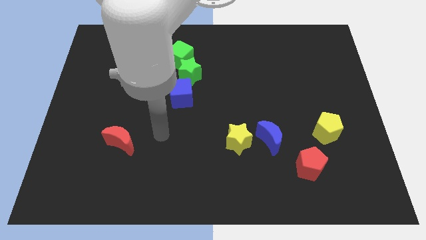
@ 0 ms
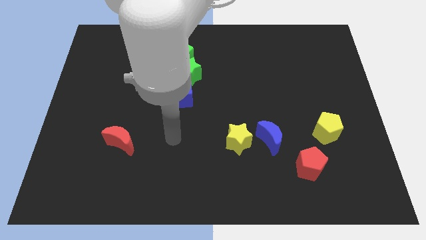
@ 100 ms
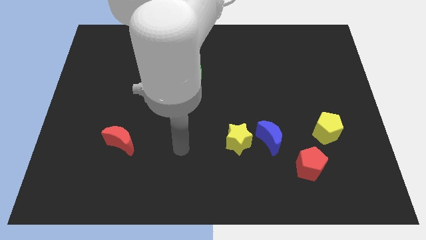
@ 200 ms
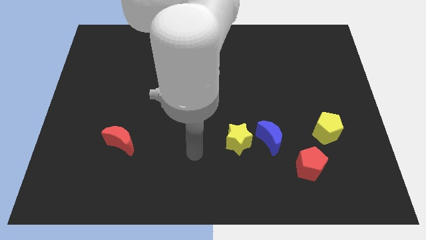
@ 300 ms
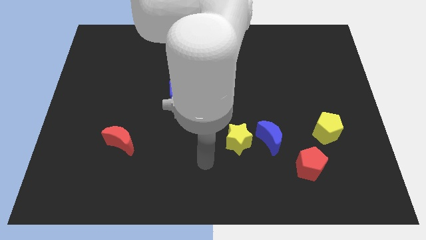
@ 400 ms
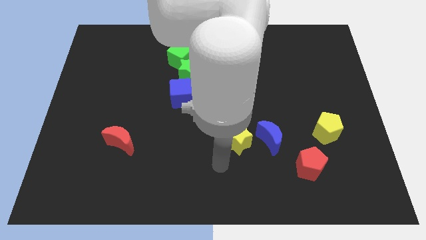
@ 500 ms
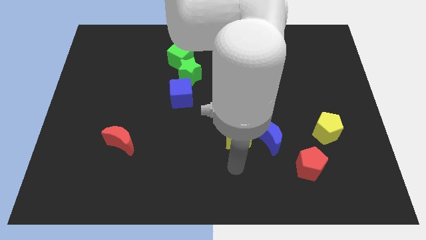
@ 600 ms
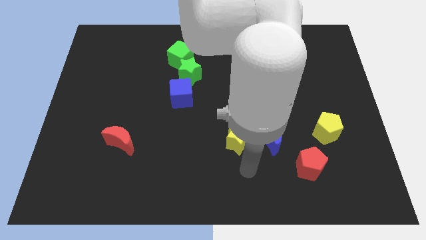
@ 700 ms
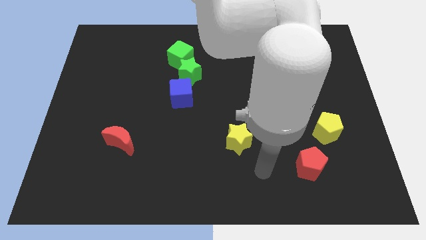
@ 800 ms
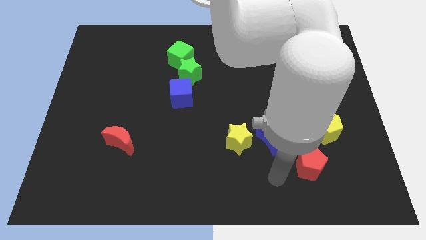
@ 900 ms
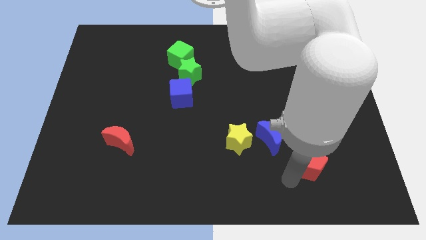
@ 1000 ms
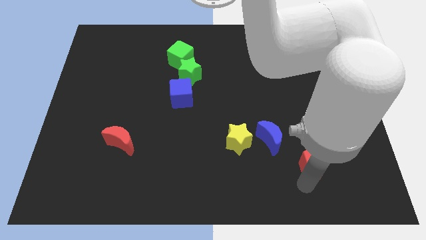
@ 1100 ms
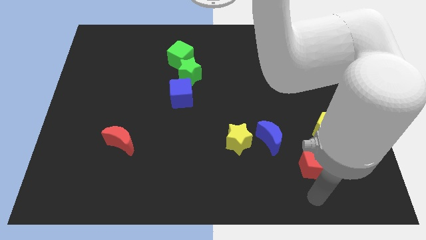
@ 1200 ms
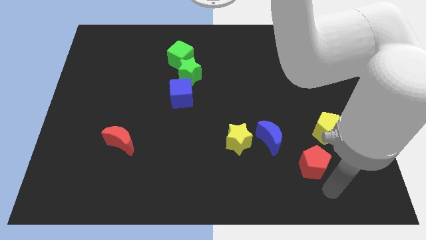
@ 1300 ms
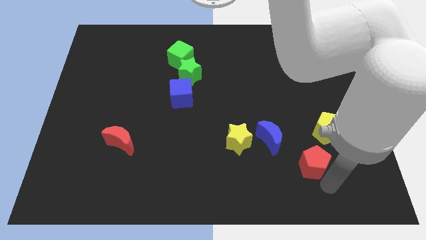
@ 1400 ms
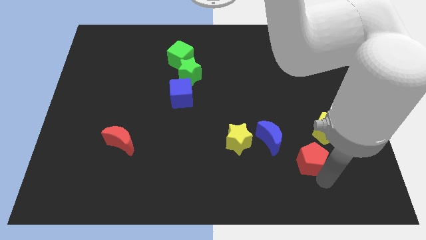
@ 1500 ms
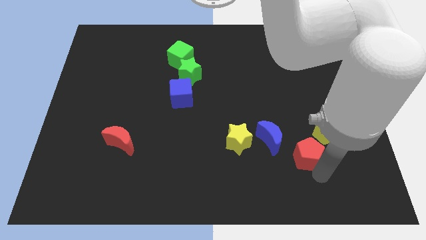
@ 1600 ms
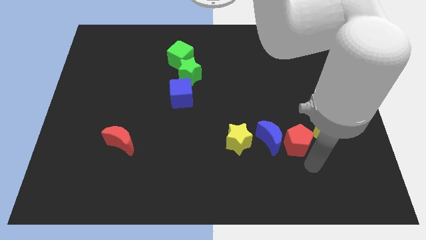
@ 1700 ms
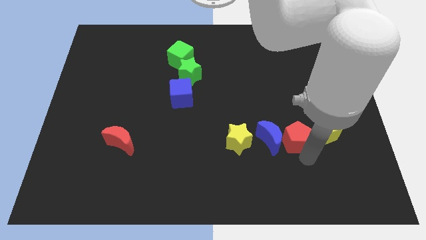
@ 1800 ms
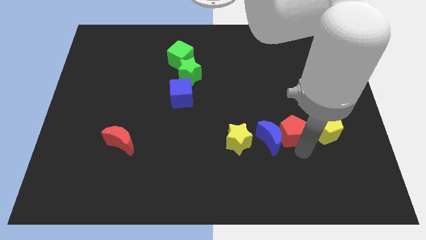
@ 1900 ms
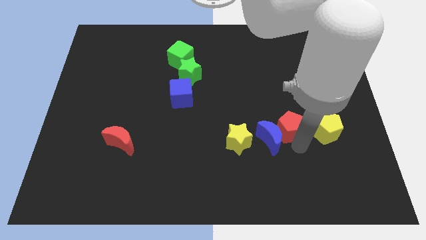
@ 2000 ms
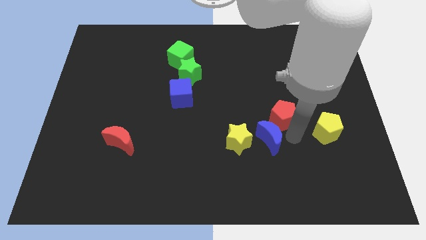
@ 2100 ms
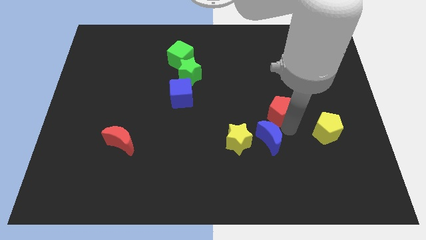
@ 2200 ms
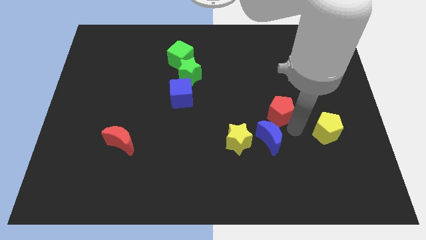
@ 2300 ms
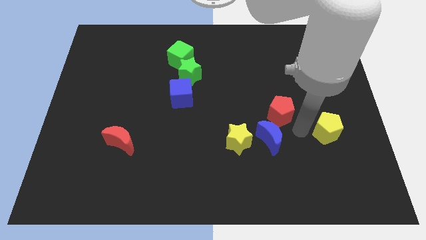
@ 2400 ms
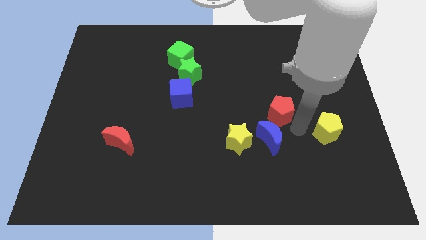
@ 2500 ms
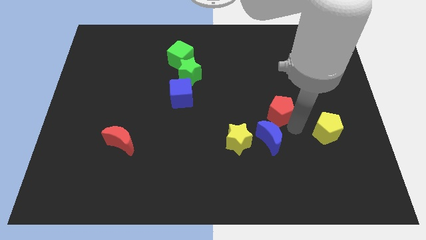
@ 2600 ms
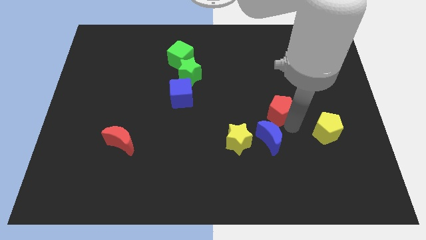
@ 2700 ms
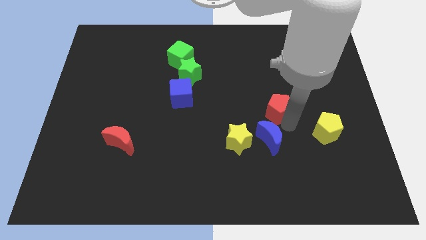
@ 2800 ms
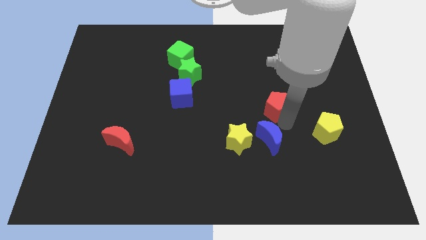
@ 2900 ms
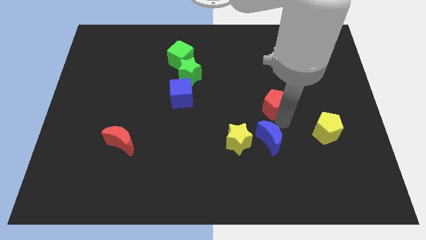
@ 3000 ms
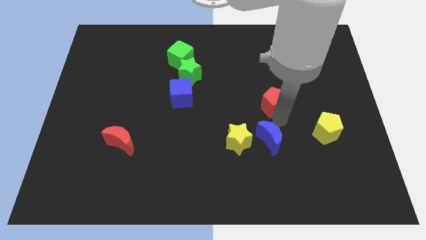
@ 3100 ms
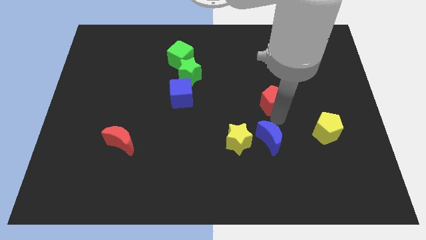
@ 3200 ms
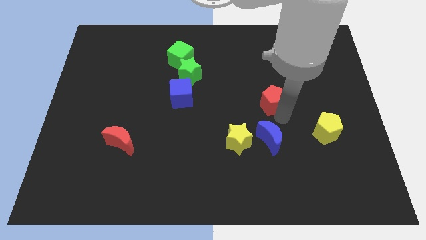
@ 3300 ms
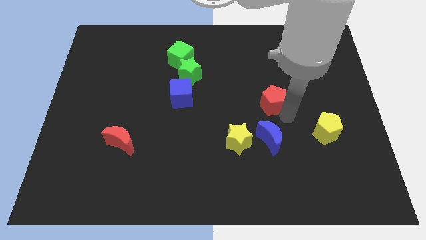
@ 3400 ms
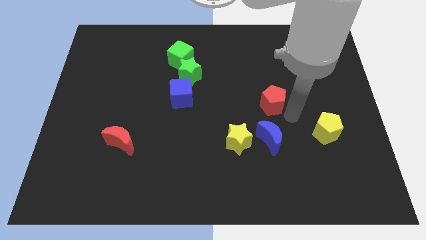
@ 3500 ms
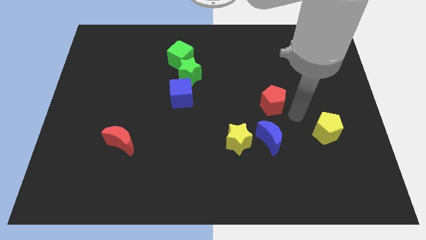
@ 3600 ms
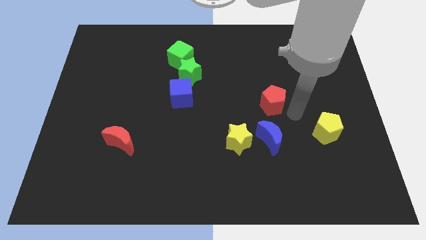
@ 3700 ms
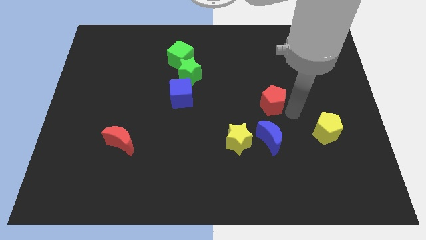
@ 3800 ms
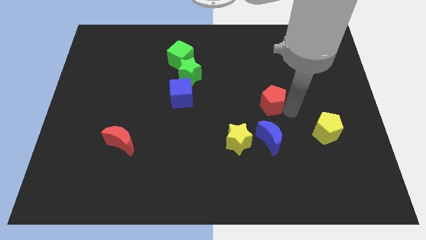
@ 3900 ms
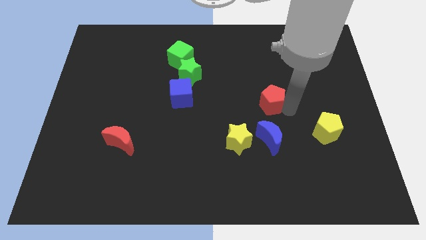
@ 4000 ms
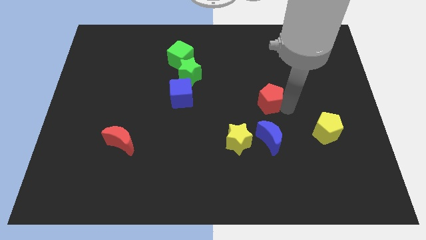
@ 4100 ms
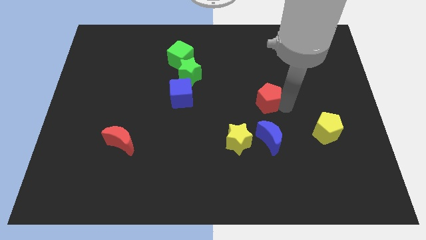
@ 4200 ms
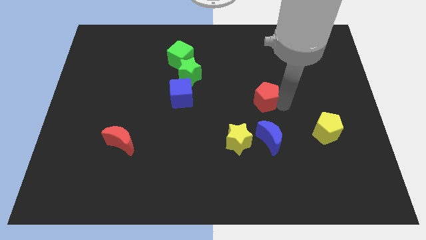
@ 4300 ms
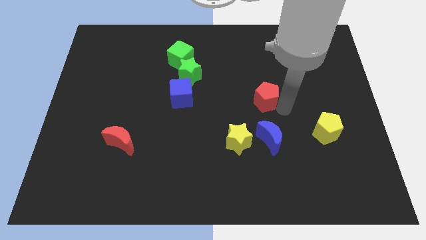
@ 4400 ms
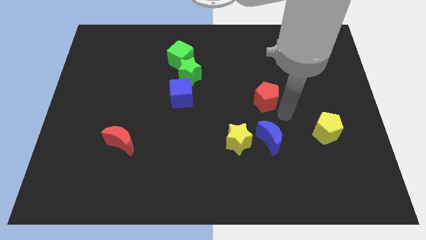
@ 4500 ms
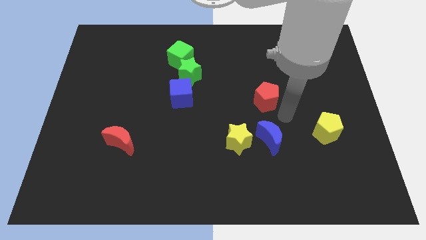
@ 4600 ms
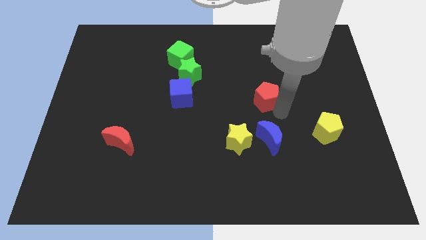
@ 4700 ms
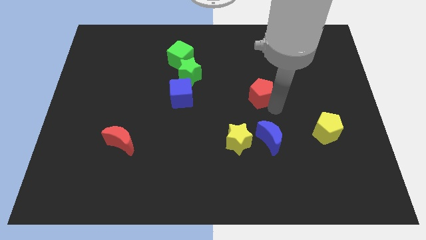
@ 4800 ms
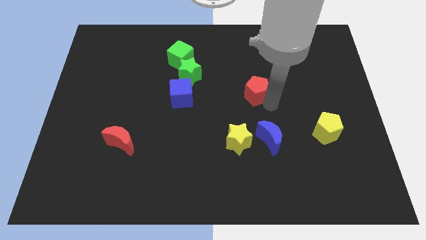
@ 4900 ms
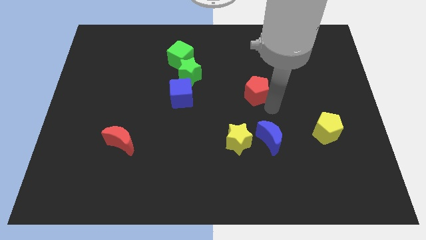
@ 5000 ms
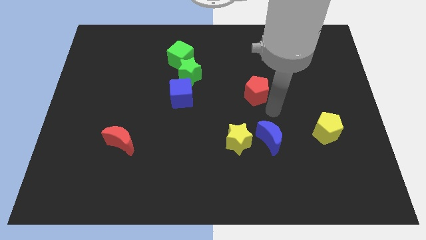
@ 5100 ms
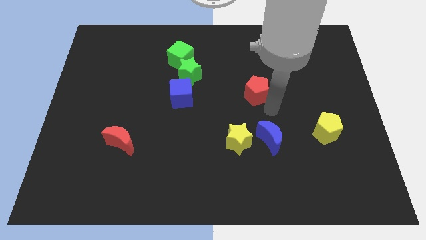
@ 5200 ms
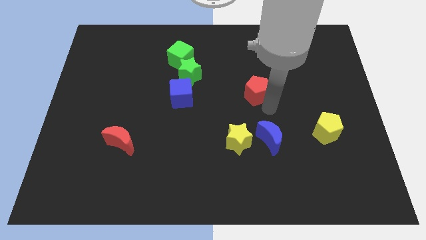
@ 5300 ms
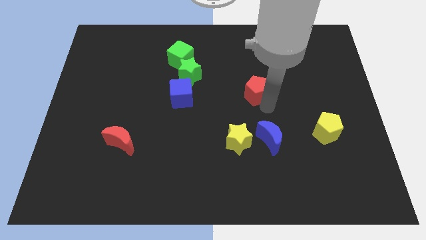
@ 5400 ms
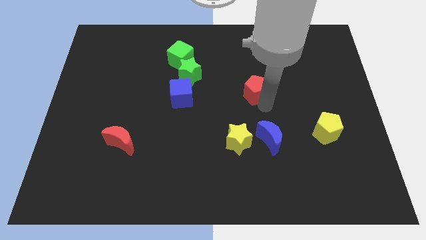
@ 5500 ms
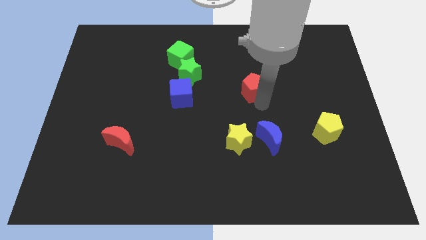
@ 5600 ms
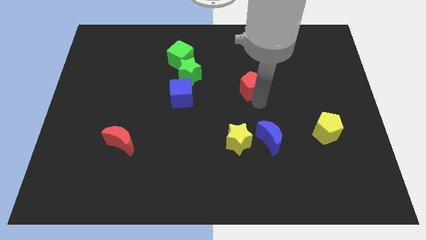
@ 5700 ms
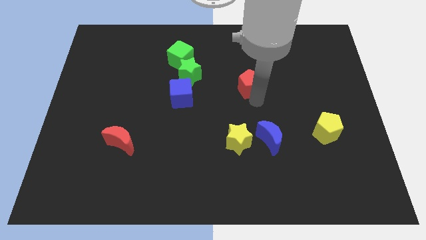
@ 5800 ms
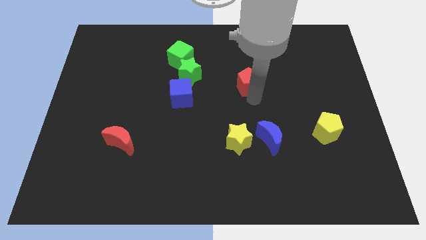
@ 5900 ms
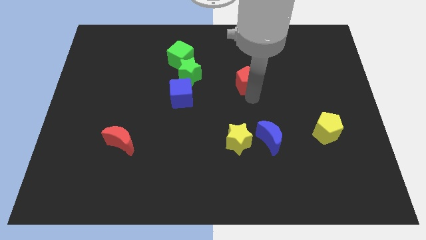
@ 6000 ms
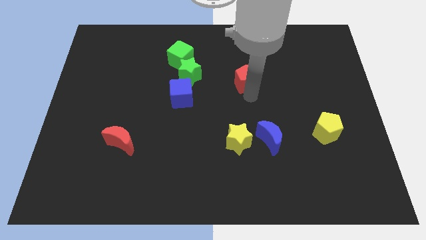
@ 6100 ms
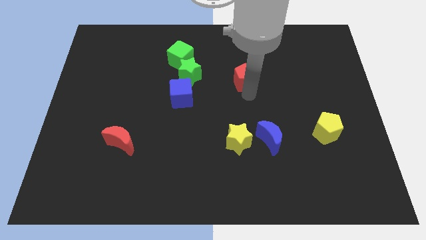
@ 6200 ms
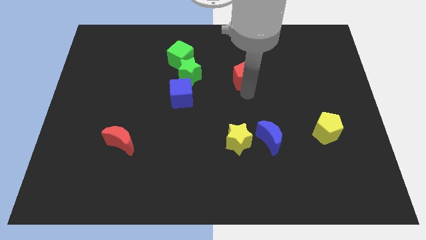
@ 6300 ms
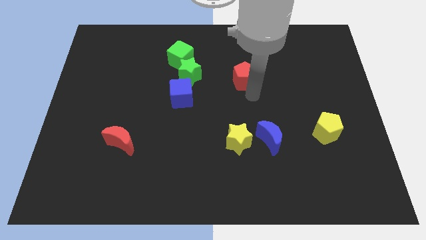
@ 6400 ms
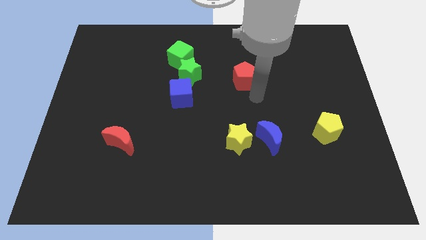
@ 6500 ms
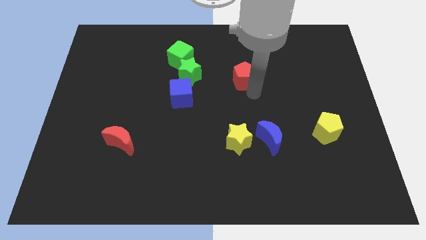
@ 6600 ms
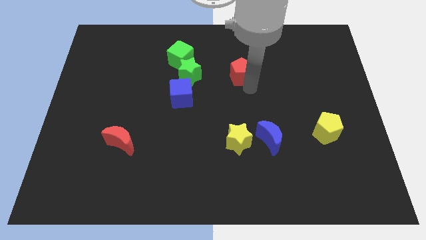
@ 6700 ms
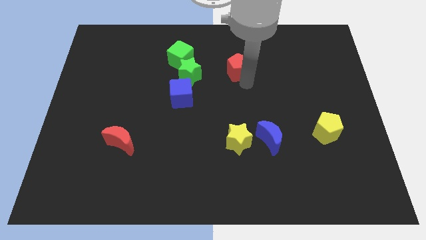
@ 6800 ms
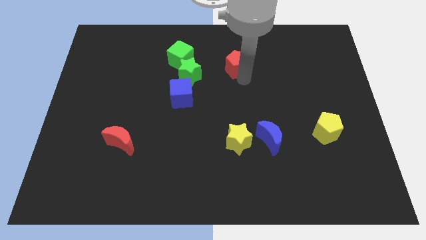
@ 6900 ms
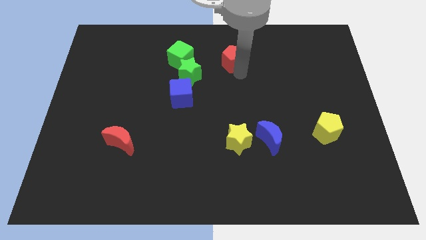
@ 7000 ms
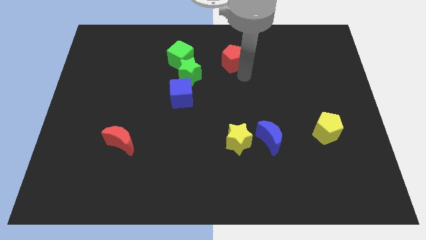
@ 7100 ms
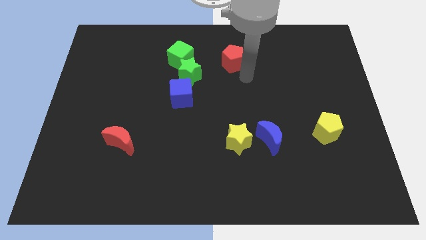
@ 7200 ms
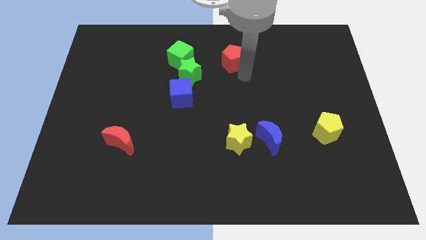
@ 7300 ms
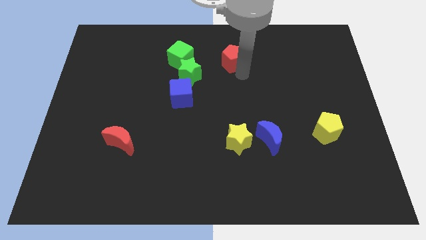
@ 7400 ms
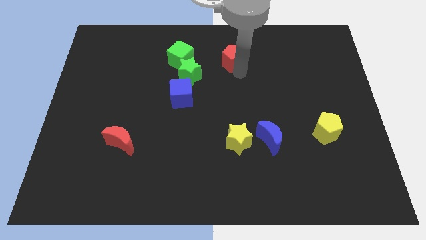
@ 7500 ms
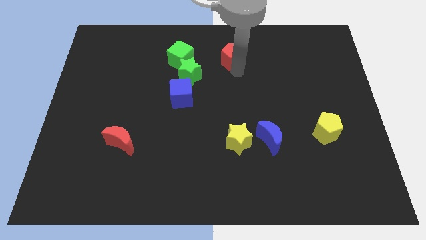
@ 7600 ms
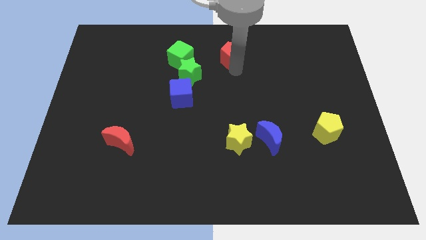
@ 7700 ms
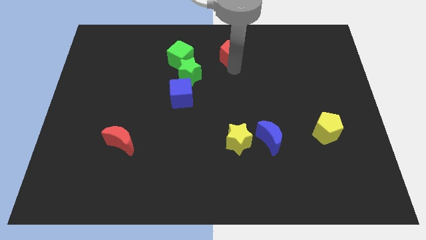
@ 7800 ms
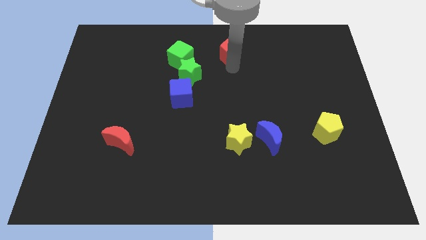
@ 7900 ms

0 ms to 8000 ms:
put the red pentagon to the top
